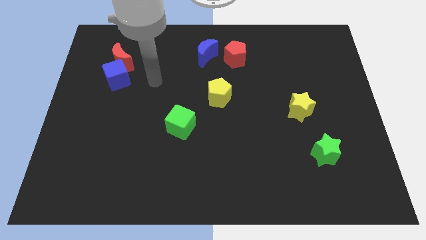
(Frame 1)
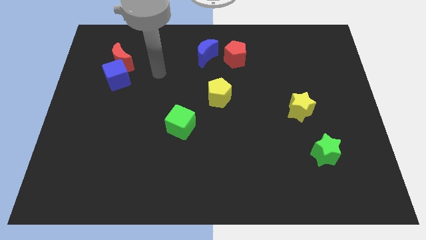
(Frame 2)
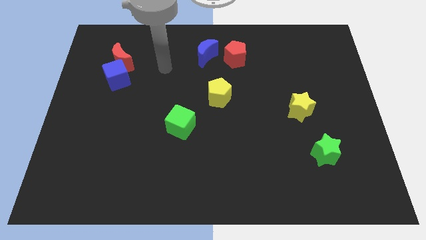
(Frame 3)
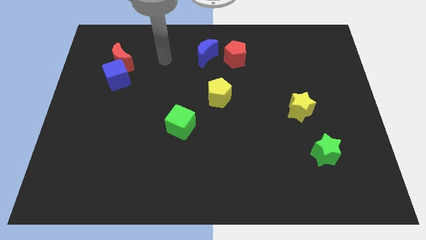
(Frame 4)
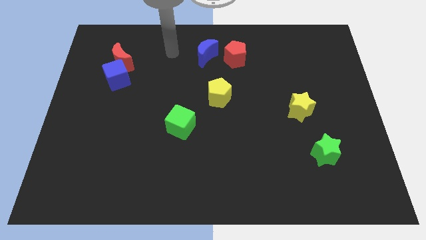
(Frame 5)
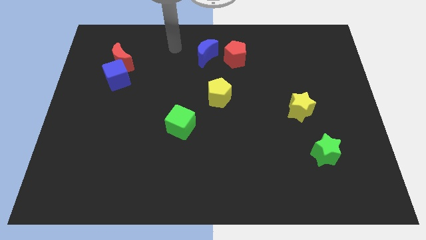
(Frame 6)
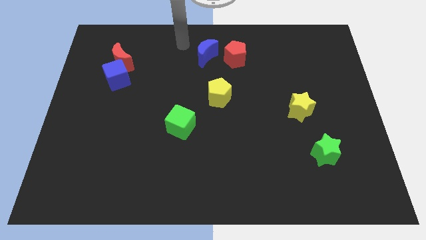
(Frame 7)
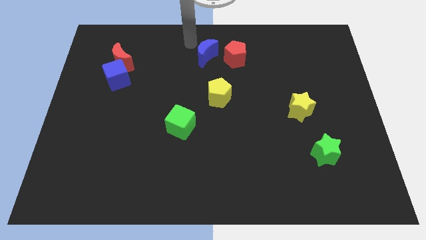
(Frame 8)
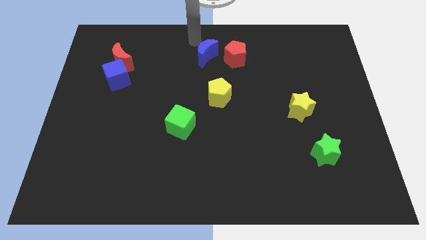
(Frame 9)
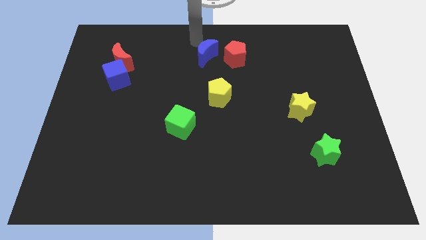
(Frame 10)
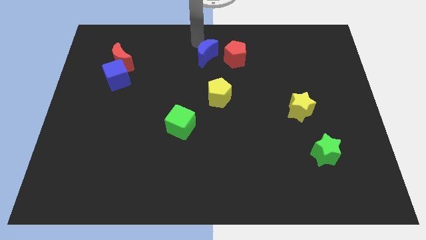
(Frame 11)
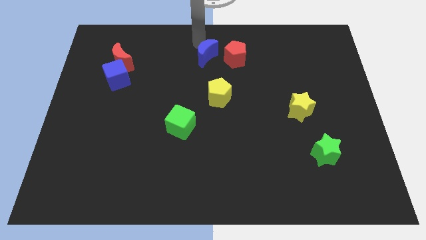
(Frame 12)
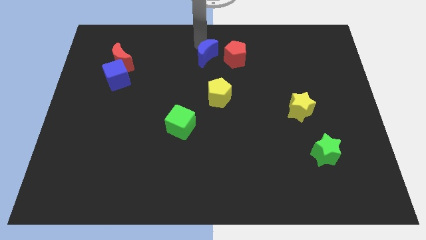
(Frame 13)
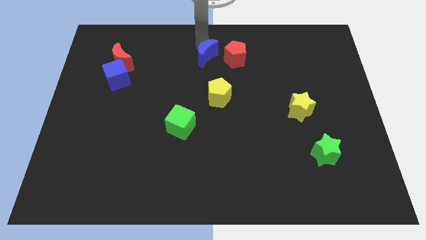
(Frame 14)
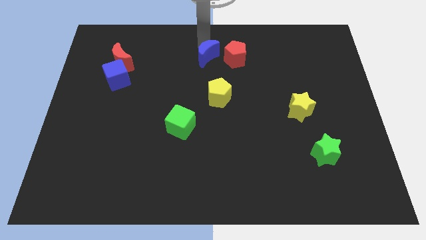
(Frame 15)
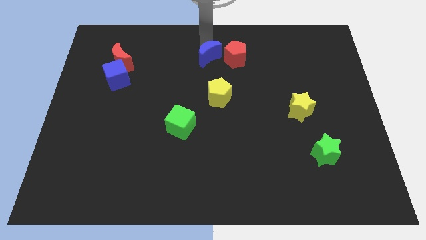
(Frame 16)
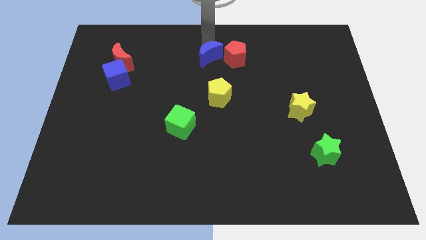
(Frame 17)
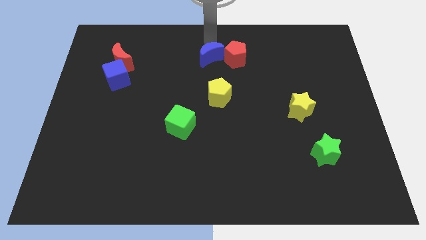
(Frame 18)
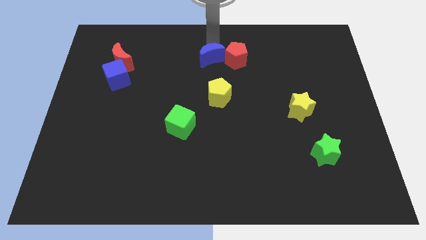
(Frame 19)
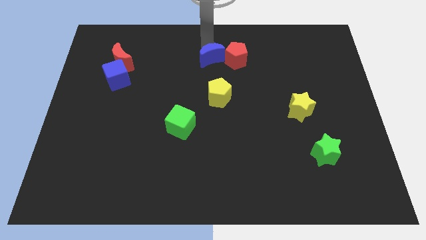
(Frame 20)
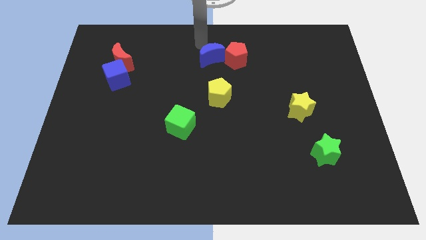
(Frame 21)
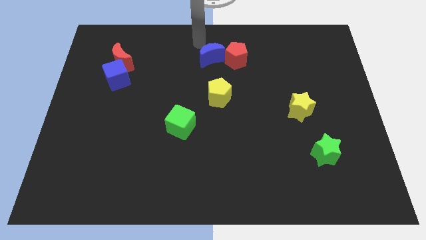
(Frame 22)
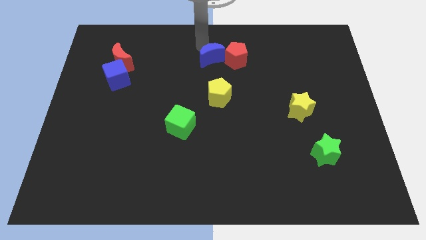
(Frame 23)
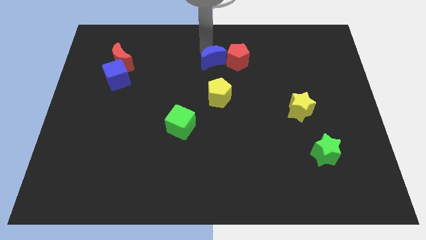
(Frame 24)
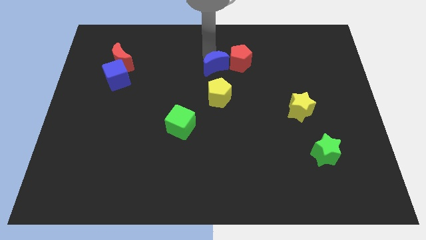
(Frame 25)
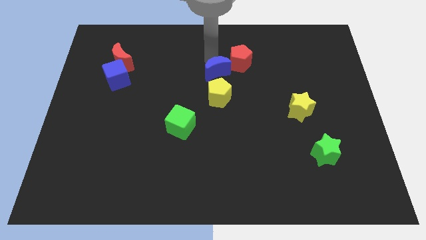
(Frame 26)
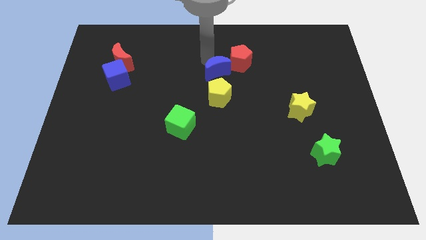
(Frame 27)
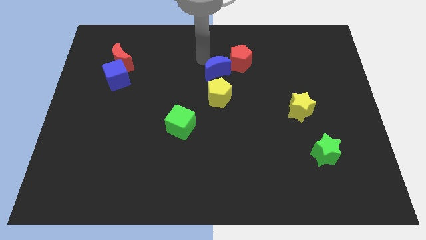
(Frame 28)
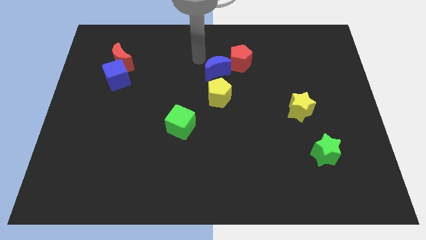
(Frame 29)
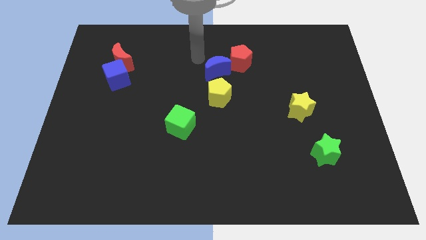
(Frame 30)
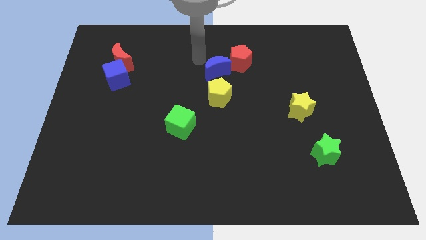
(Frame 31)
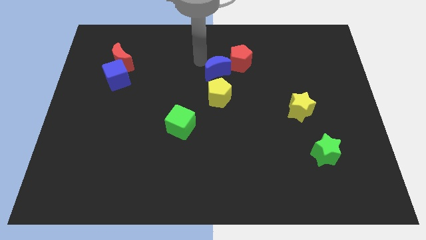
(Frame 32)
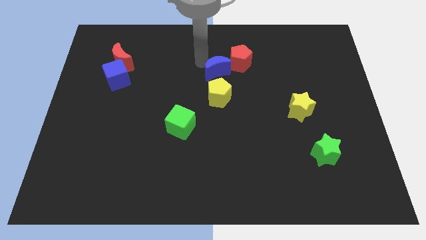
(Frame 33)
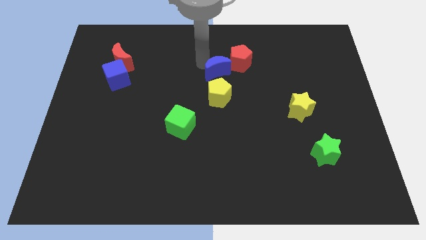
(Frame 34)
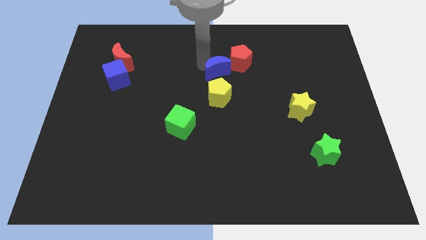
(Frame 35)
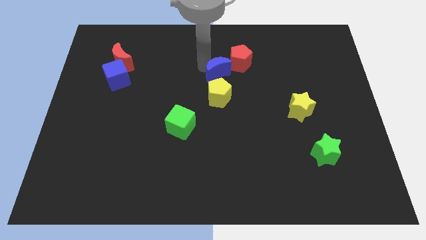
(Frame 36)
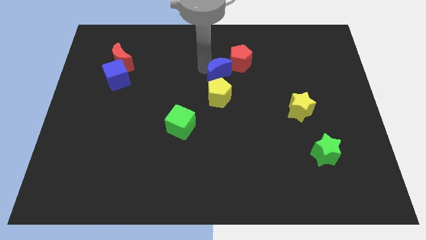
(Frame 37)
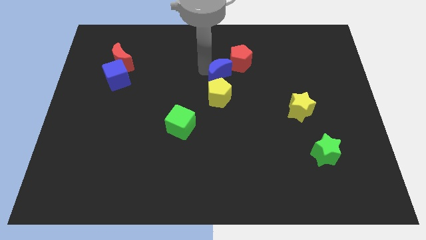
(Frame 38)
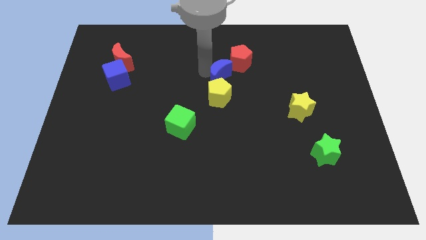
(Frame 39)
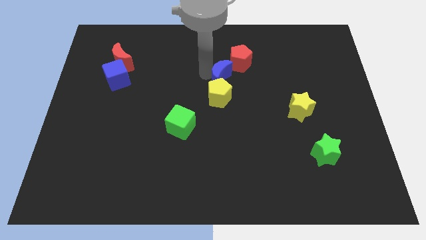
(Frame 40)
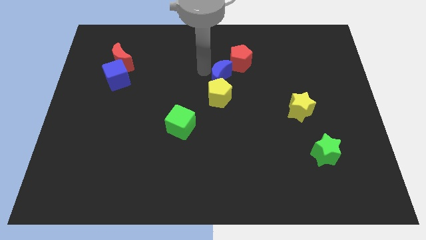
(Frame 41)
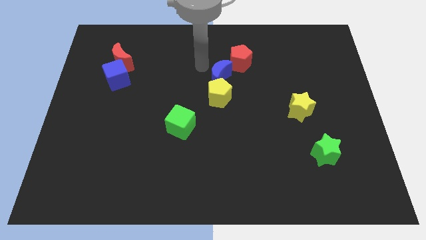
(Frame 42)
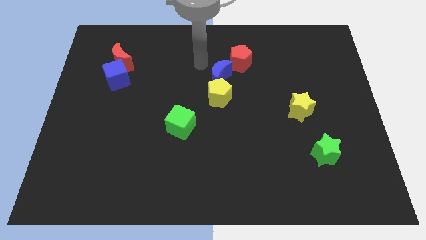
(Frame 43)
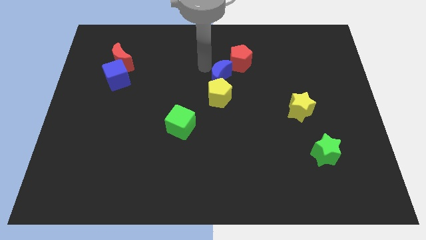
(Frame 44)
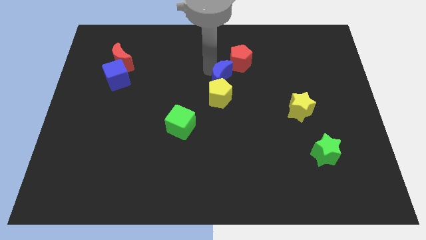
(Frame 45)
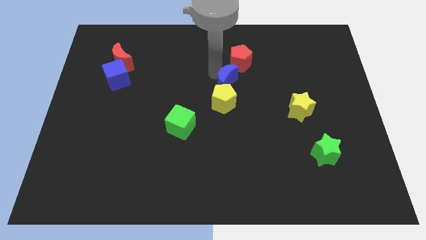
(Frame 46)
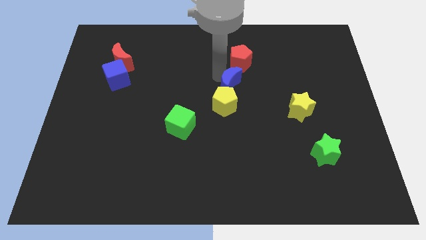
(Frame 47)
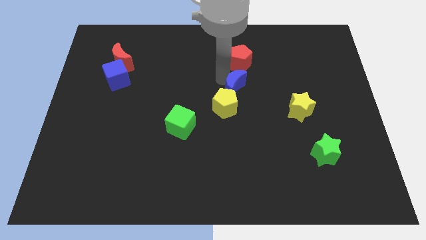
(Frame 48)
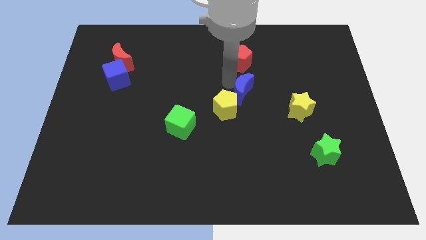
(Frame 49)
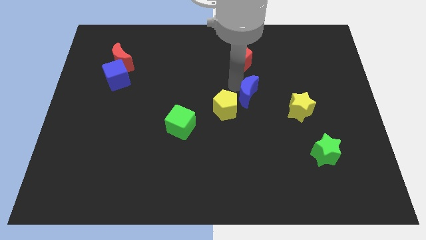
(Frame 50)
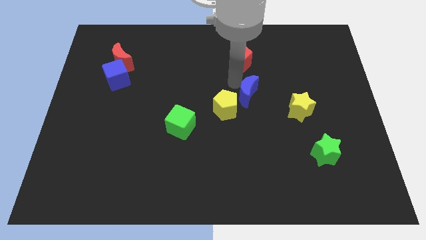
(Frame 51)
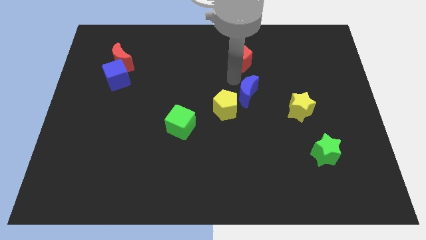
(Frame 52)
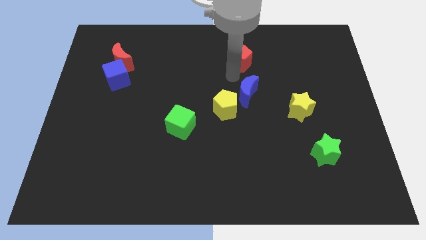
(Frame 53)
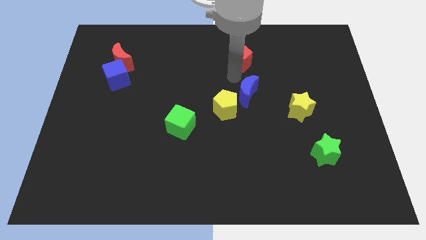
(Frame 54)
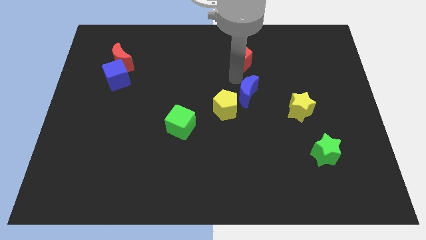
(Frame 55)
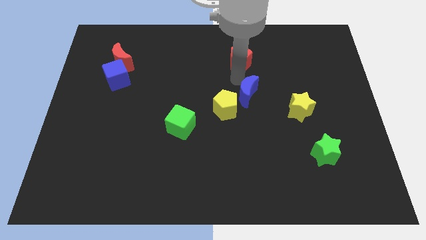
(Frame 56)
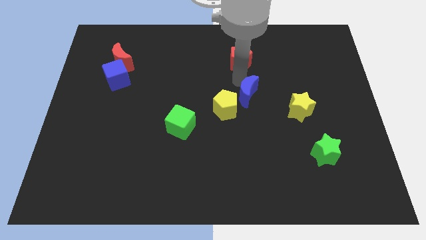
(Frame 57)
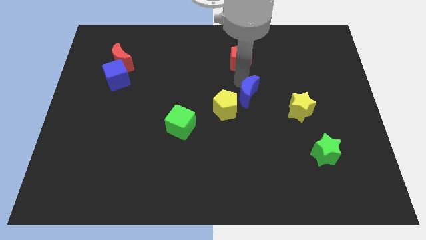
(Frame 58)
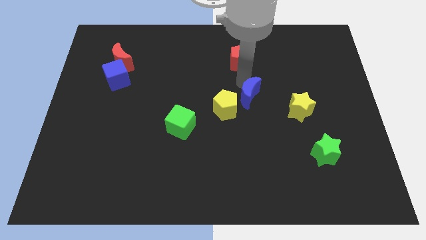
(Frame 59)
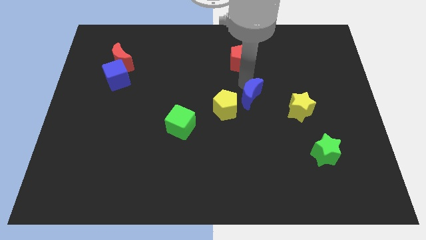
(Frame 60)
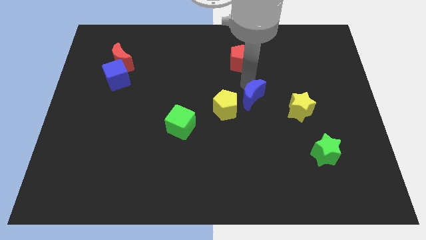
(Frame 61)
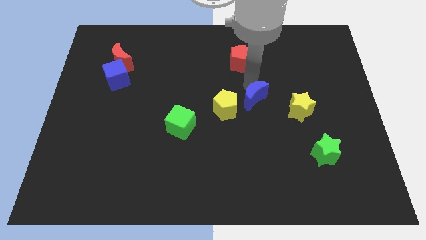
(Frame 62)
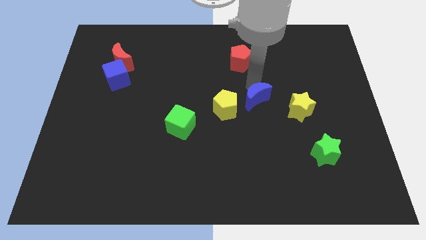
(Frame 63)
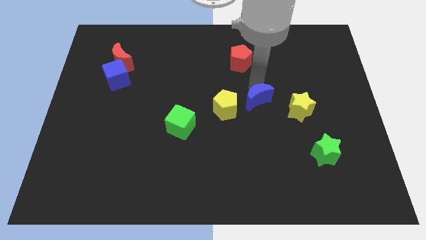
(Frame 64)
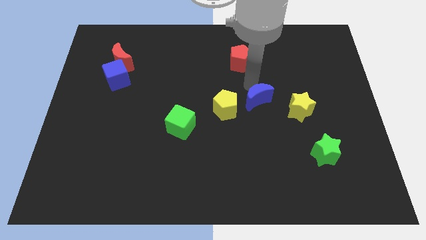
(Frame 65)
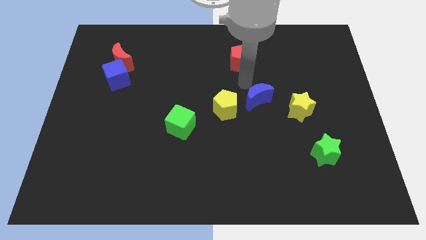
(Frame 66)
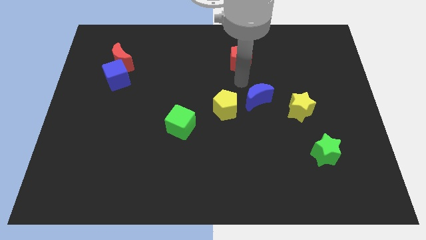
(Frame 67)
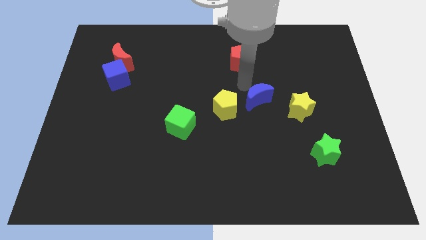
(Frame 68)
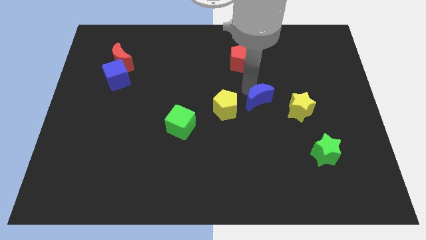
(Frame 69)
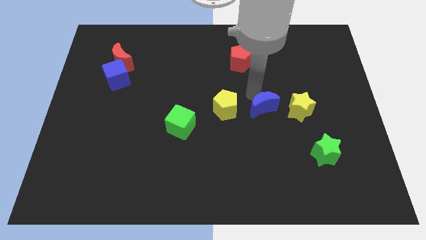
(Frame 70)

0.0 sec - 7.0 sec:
move the blue moon down and right diagonally

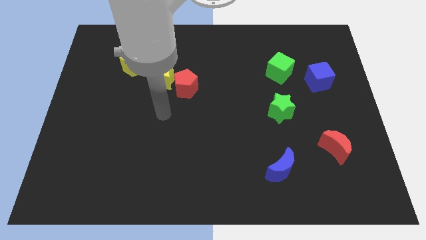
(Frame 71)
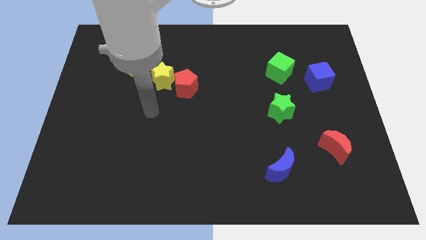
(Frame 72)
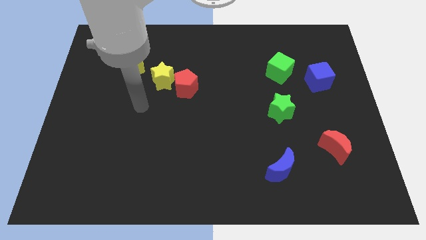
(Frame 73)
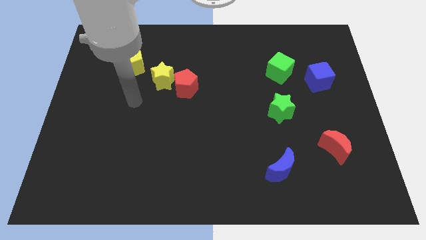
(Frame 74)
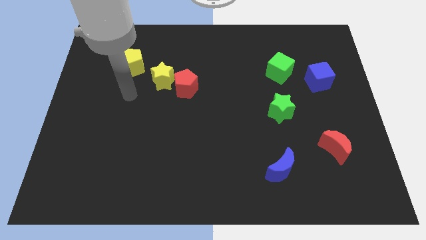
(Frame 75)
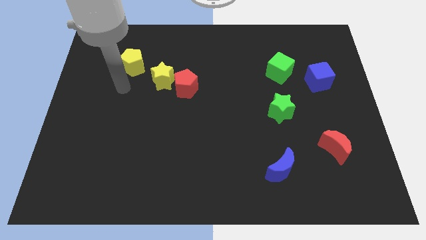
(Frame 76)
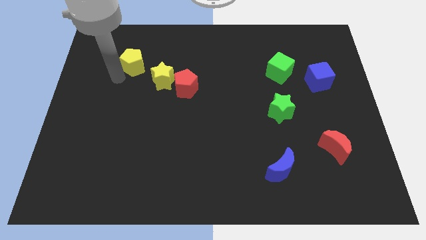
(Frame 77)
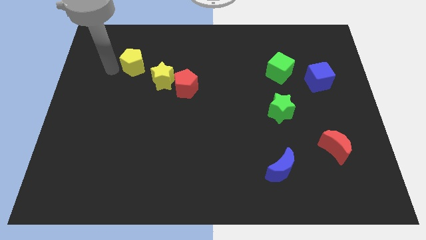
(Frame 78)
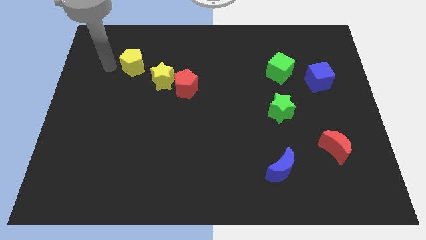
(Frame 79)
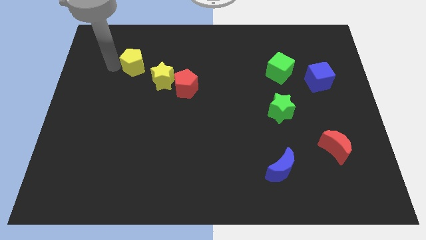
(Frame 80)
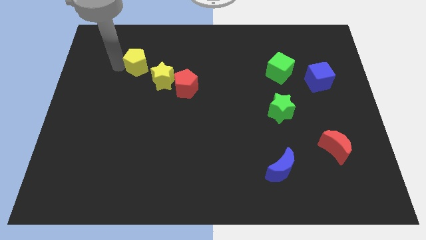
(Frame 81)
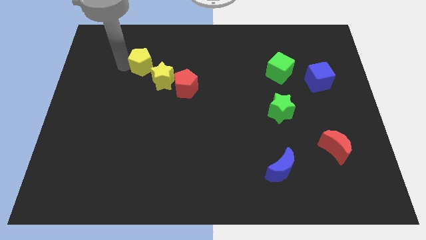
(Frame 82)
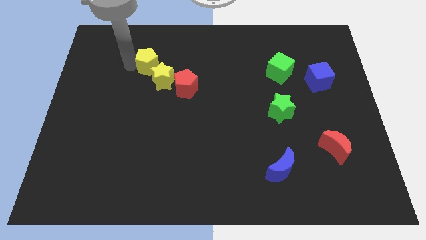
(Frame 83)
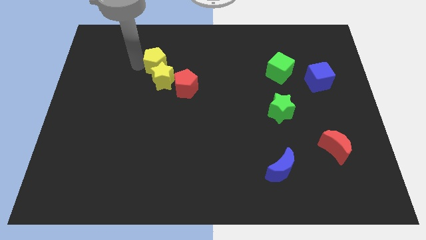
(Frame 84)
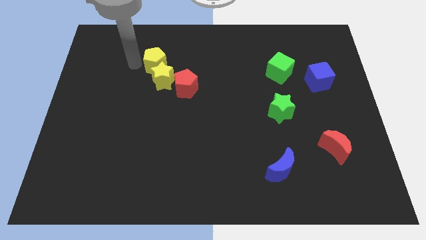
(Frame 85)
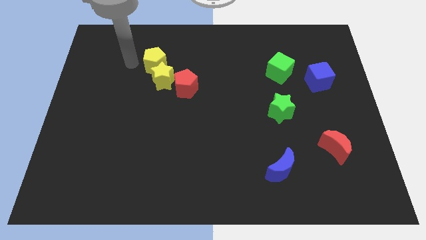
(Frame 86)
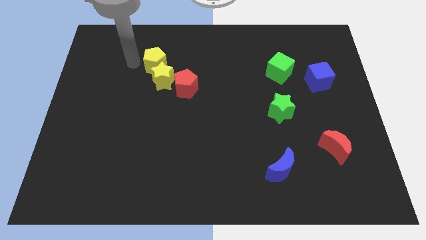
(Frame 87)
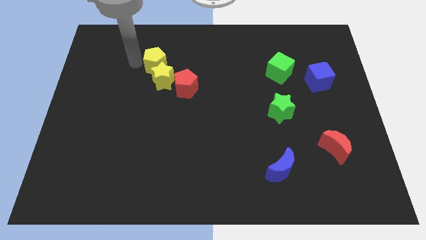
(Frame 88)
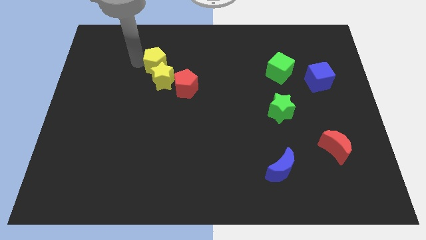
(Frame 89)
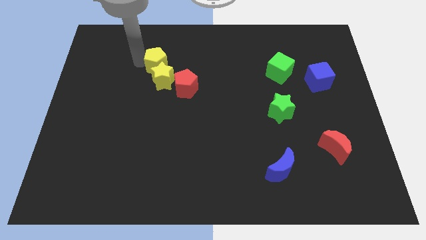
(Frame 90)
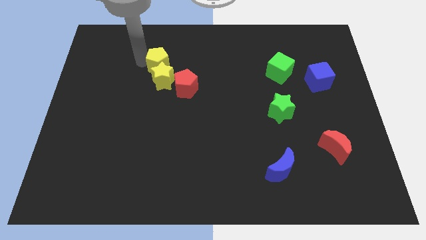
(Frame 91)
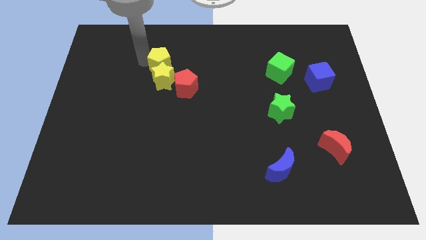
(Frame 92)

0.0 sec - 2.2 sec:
move the yellow pentagon slightly to the right
